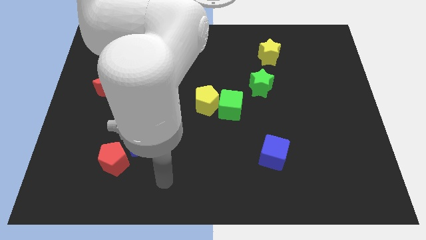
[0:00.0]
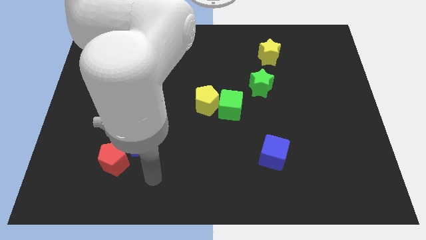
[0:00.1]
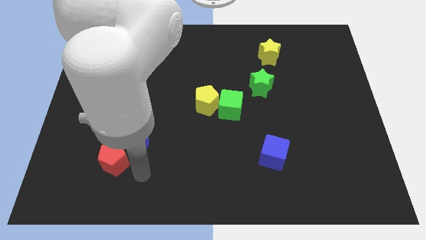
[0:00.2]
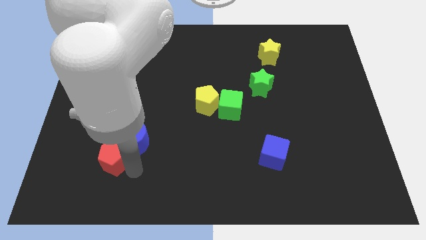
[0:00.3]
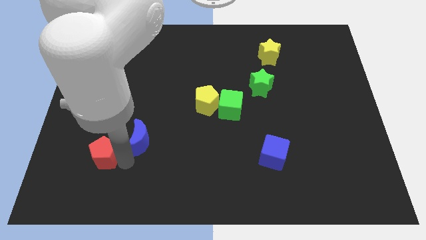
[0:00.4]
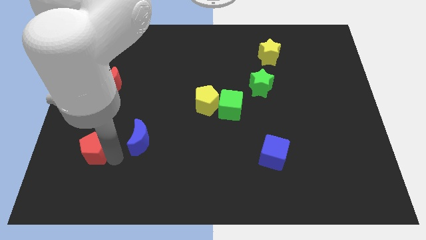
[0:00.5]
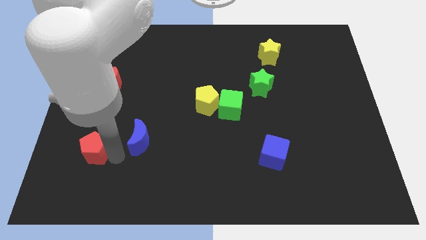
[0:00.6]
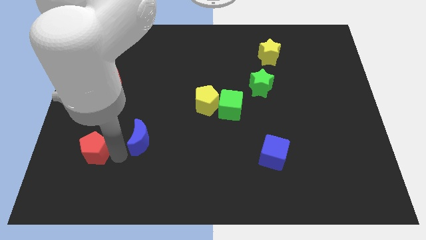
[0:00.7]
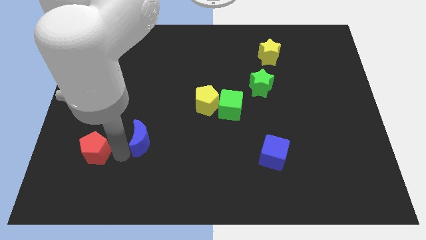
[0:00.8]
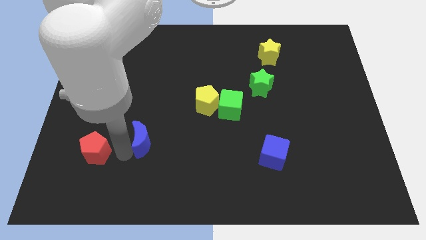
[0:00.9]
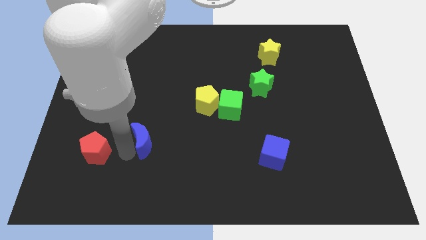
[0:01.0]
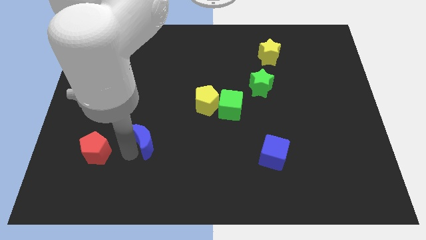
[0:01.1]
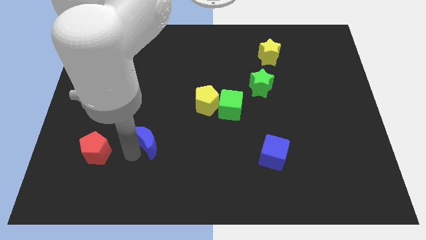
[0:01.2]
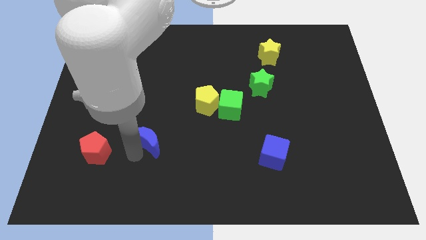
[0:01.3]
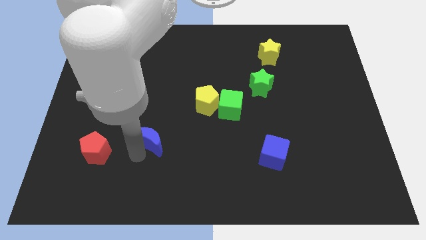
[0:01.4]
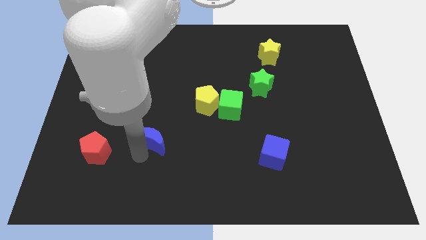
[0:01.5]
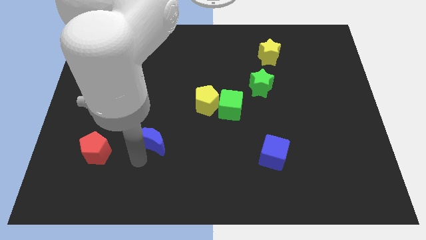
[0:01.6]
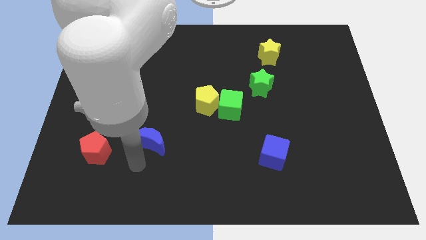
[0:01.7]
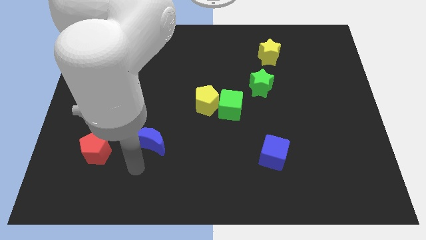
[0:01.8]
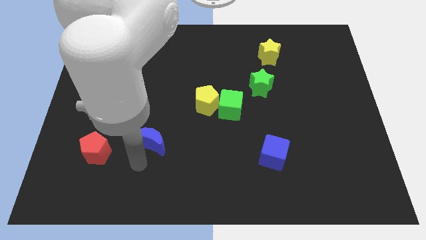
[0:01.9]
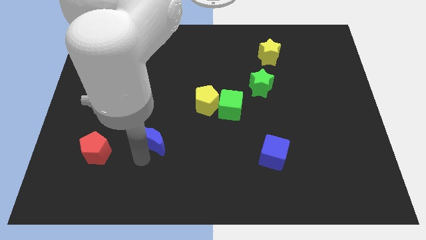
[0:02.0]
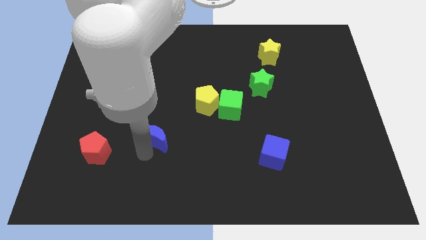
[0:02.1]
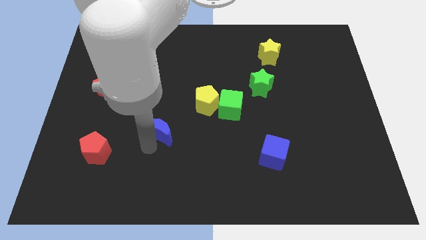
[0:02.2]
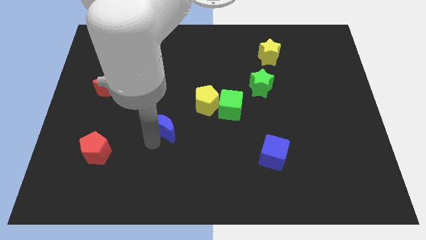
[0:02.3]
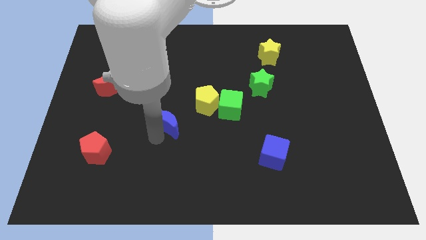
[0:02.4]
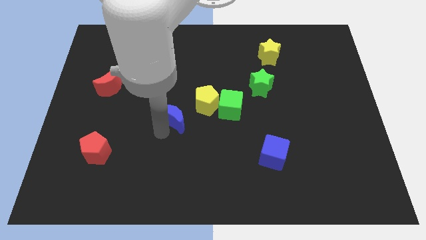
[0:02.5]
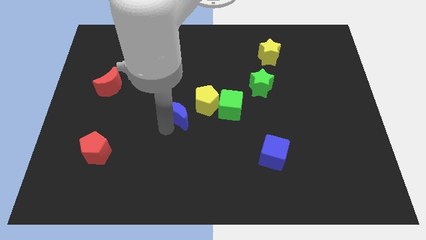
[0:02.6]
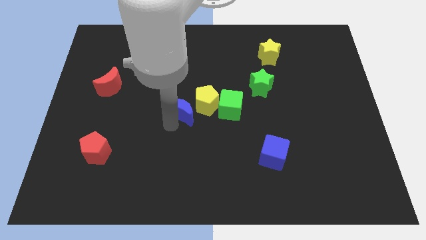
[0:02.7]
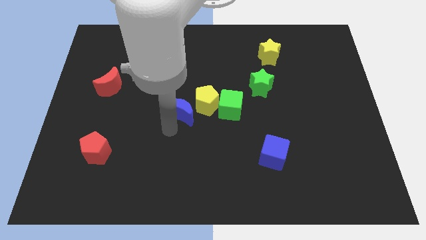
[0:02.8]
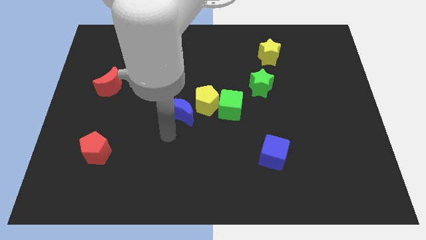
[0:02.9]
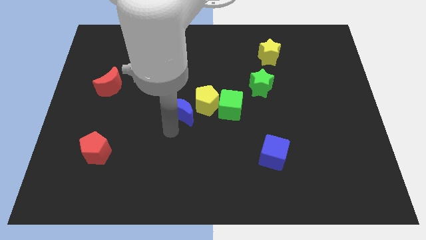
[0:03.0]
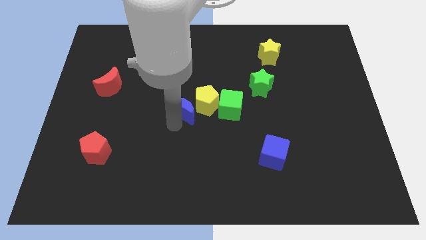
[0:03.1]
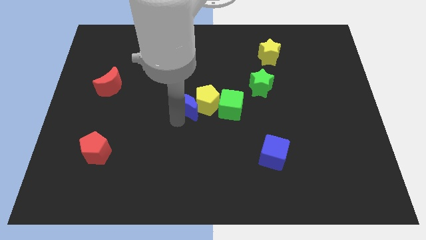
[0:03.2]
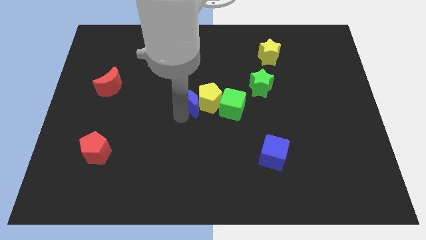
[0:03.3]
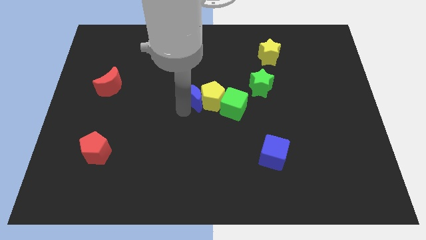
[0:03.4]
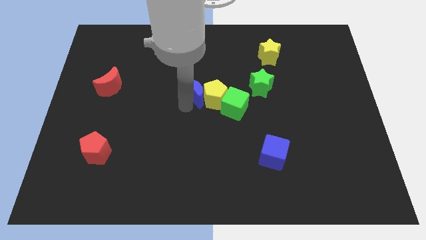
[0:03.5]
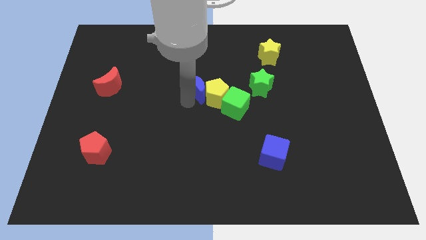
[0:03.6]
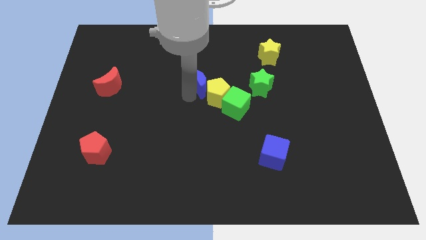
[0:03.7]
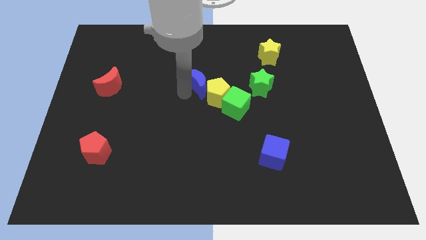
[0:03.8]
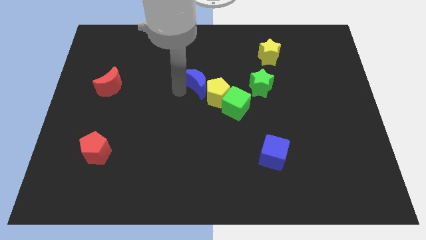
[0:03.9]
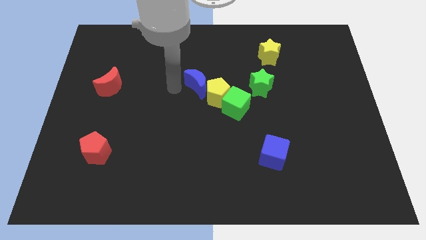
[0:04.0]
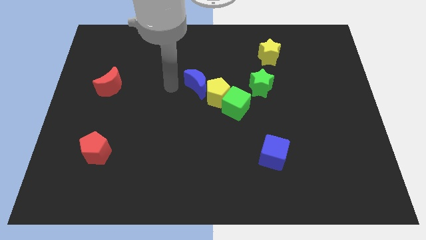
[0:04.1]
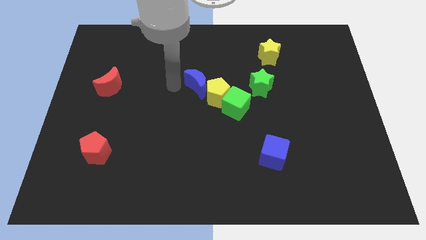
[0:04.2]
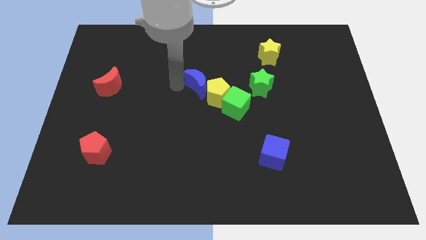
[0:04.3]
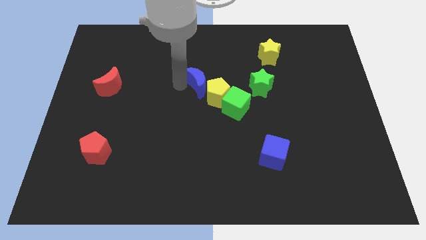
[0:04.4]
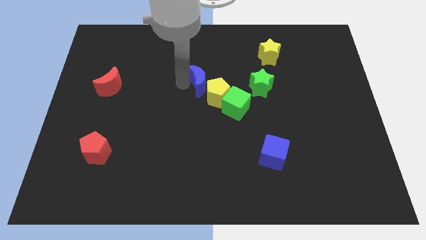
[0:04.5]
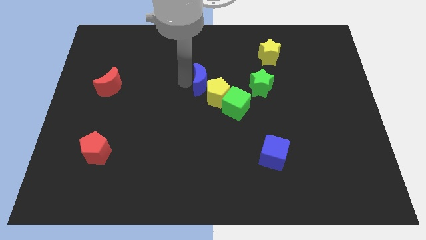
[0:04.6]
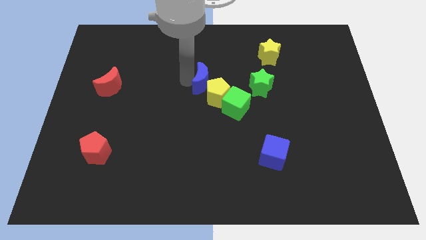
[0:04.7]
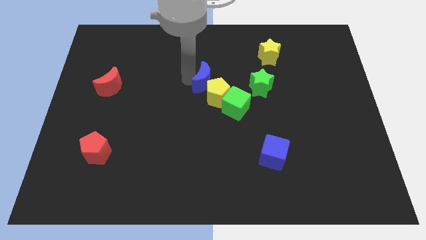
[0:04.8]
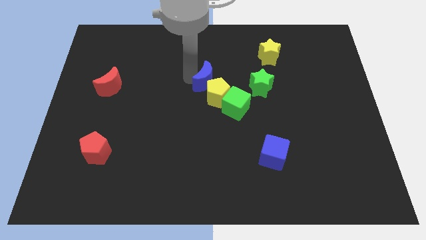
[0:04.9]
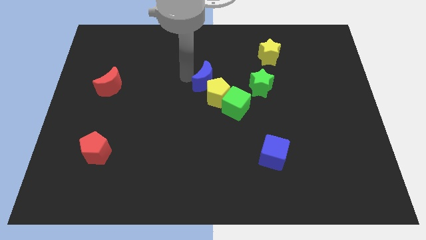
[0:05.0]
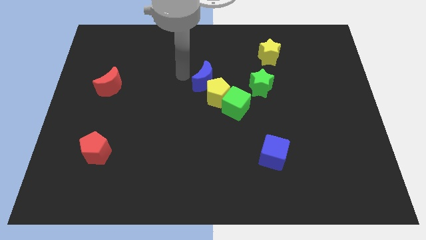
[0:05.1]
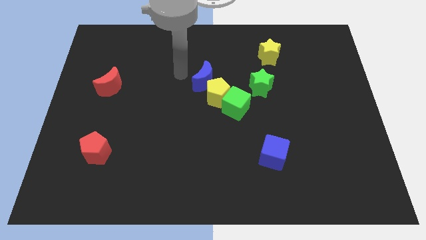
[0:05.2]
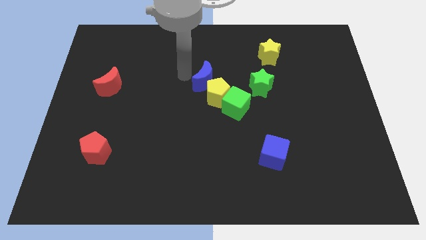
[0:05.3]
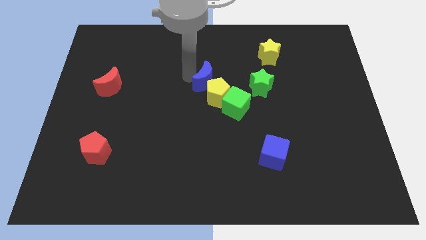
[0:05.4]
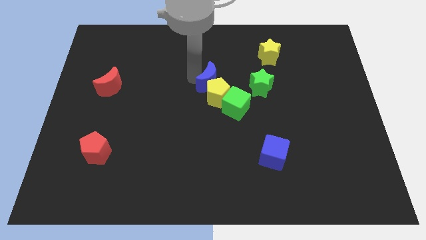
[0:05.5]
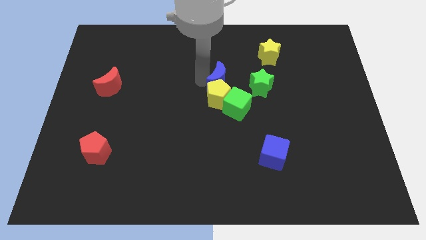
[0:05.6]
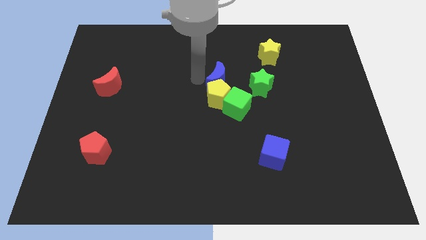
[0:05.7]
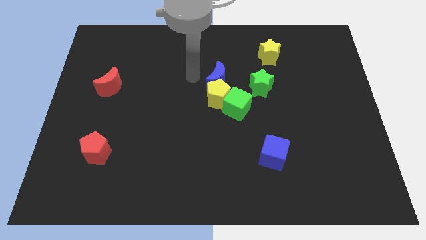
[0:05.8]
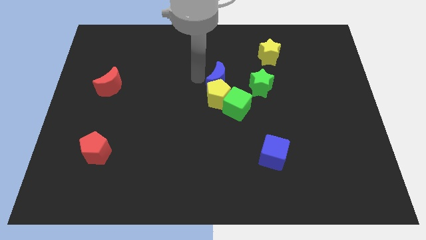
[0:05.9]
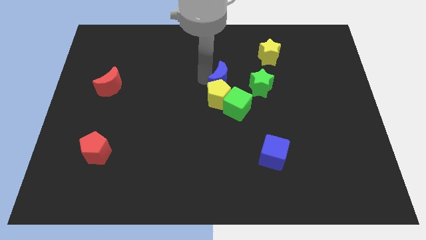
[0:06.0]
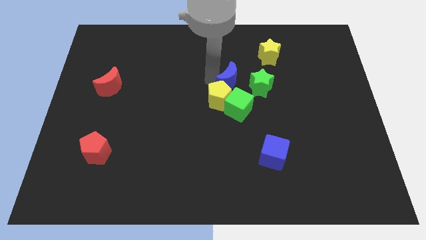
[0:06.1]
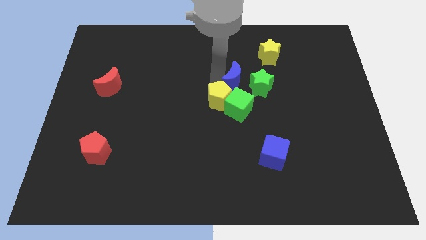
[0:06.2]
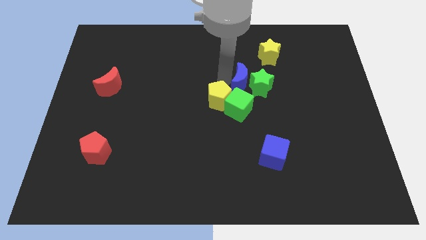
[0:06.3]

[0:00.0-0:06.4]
slide the blue moon next to the green star

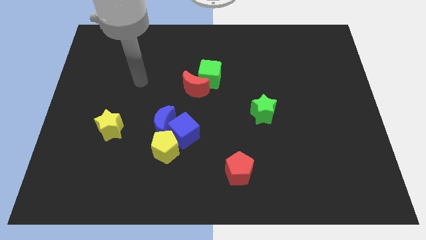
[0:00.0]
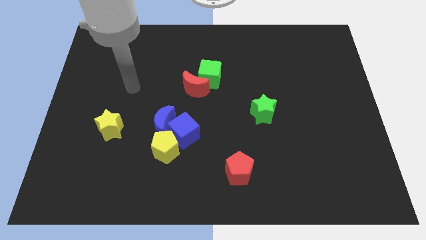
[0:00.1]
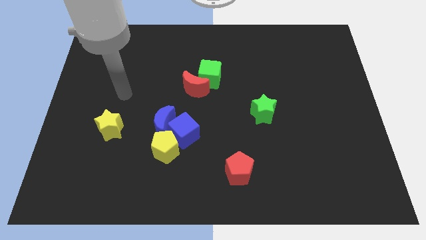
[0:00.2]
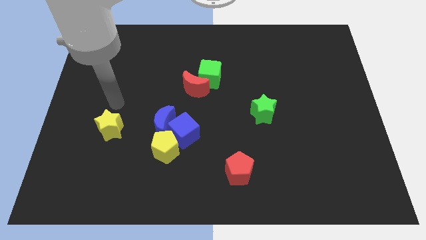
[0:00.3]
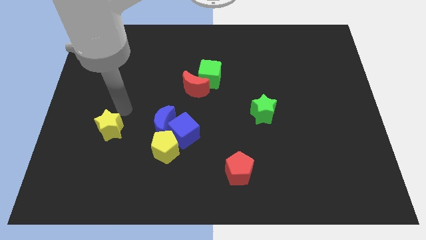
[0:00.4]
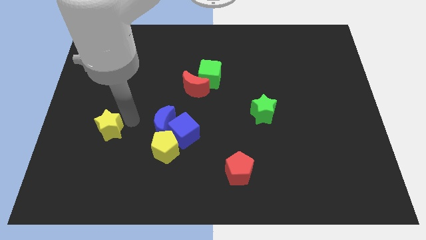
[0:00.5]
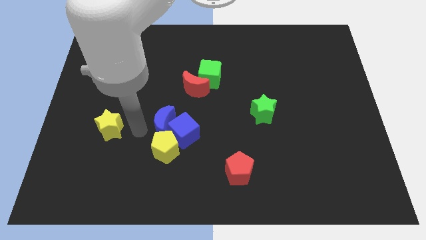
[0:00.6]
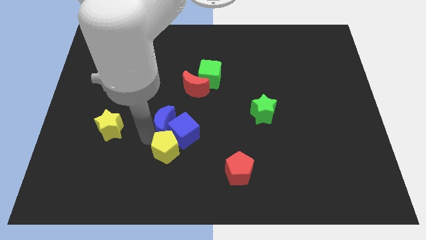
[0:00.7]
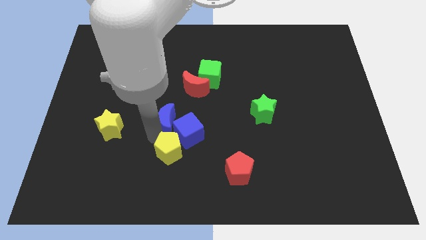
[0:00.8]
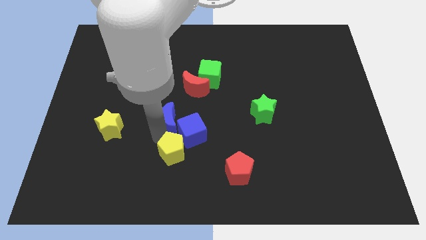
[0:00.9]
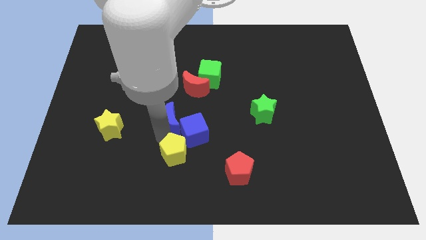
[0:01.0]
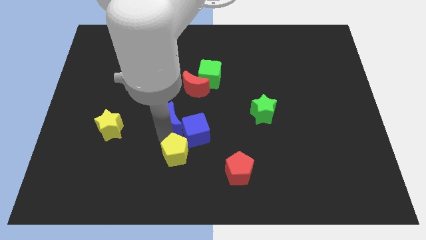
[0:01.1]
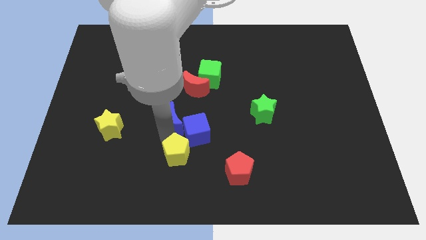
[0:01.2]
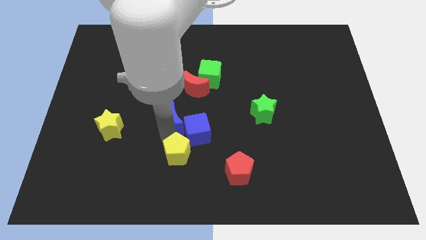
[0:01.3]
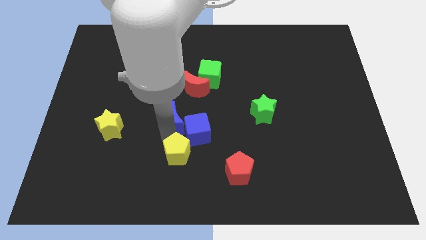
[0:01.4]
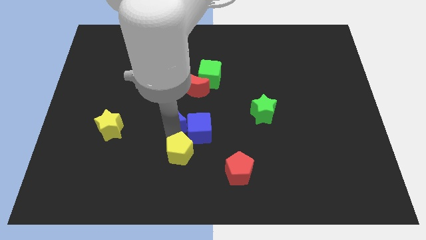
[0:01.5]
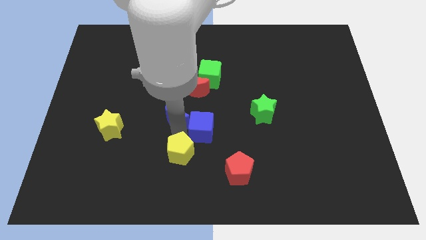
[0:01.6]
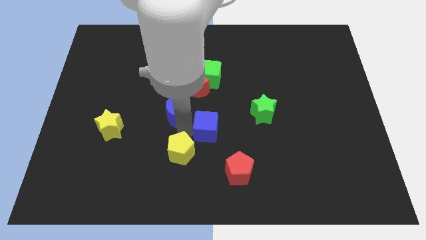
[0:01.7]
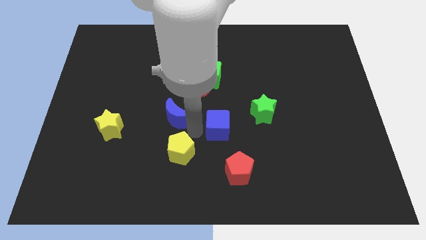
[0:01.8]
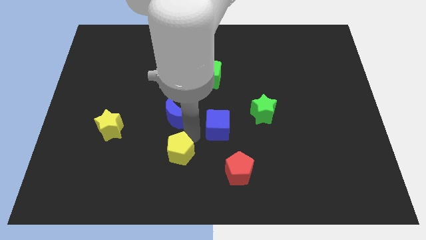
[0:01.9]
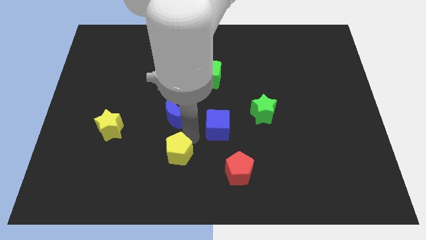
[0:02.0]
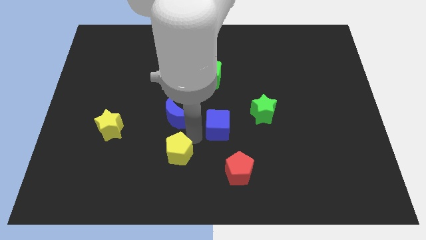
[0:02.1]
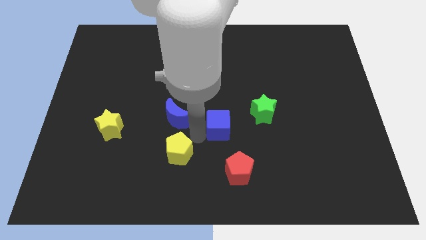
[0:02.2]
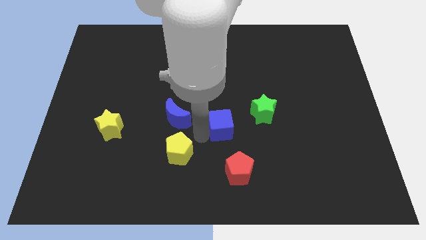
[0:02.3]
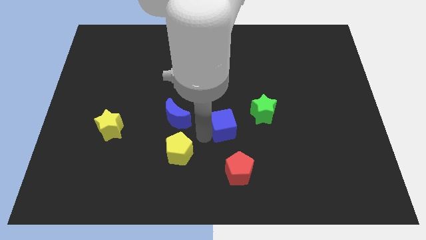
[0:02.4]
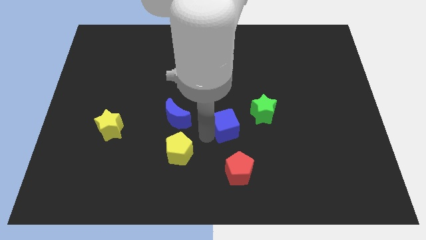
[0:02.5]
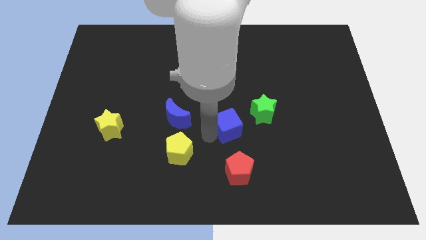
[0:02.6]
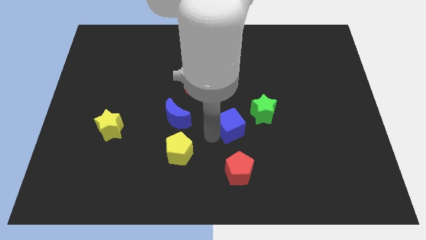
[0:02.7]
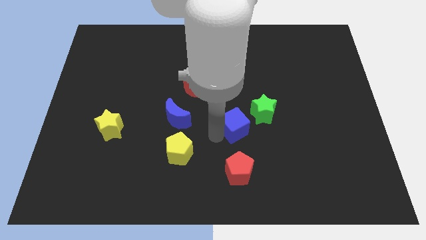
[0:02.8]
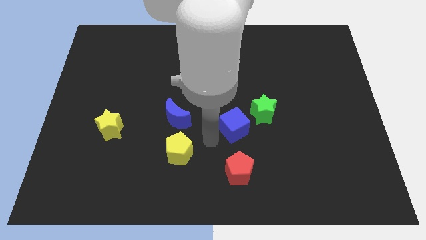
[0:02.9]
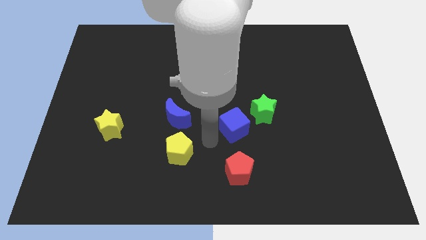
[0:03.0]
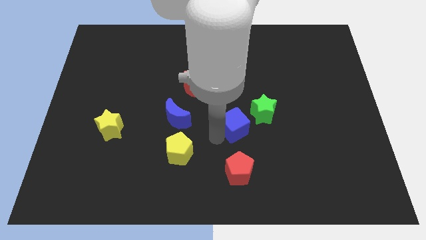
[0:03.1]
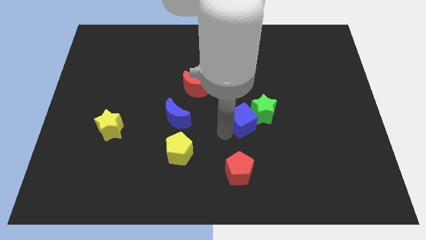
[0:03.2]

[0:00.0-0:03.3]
push the blue cube to the green star
